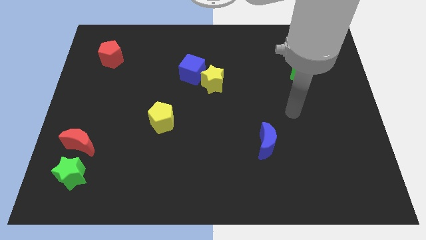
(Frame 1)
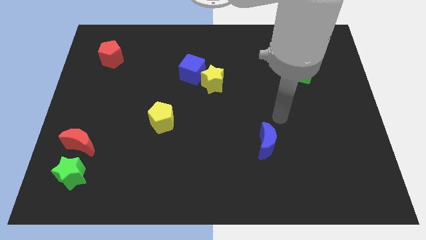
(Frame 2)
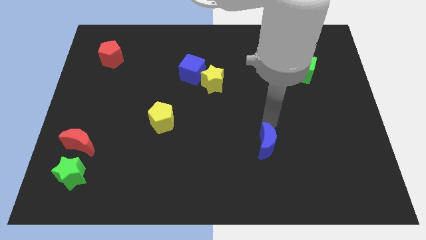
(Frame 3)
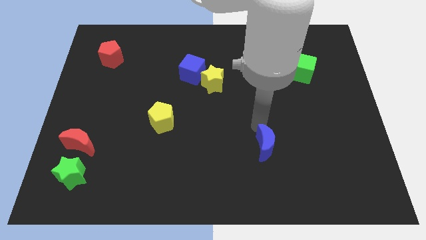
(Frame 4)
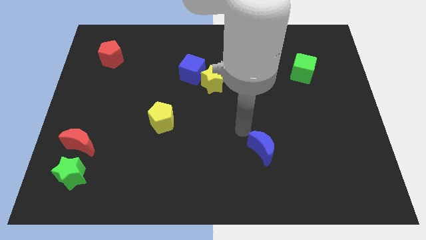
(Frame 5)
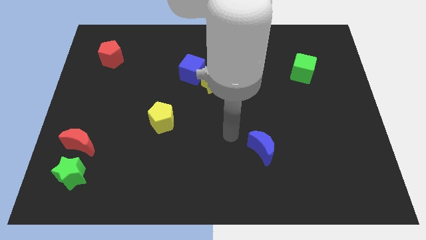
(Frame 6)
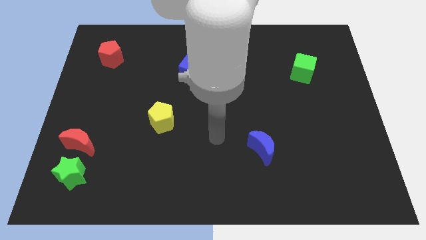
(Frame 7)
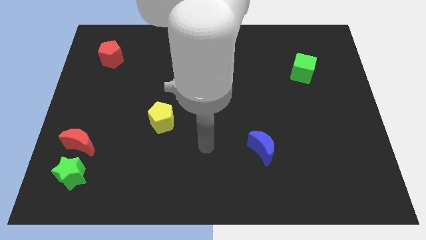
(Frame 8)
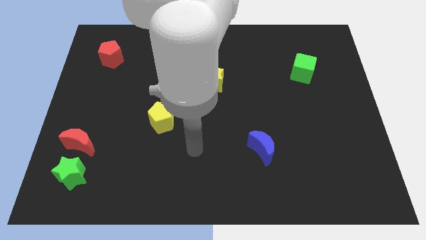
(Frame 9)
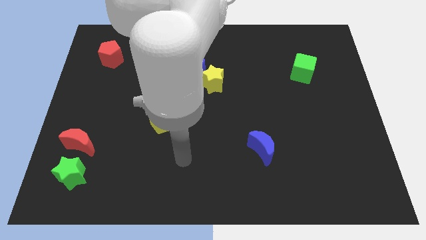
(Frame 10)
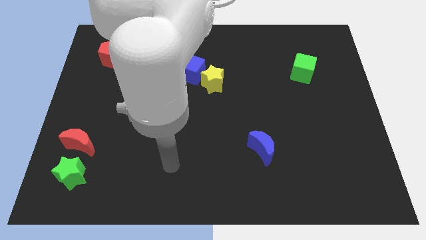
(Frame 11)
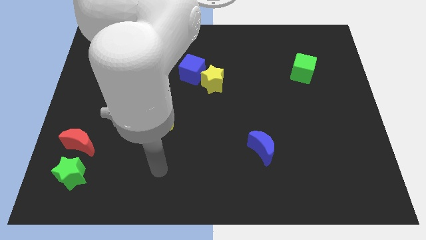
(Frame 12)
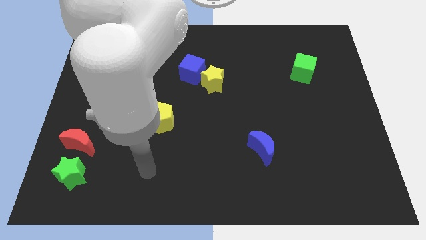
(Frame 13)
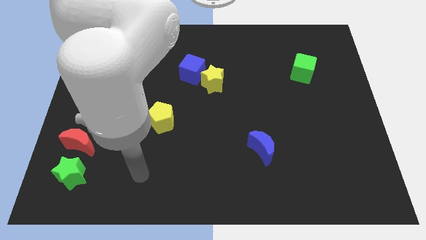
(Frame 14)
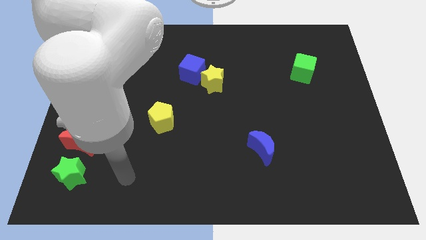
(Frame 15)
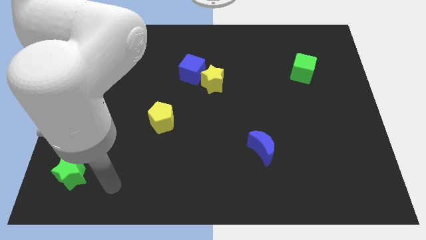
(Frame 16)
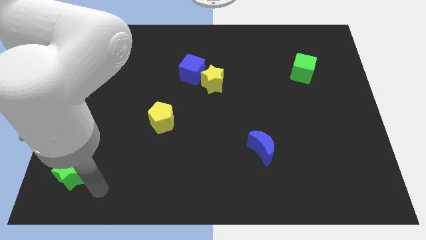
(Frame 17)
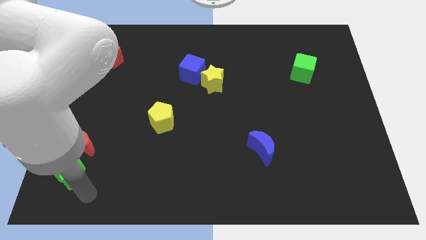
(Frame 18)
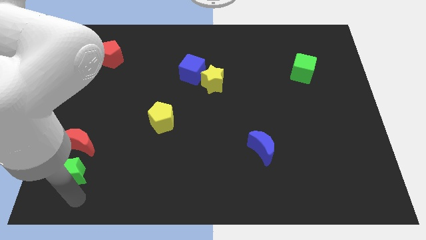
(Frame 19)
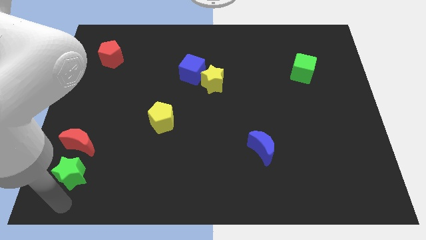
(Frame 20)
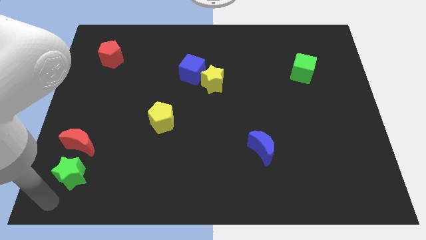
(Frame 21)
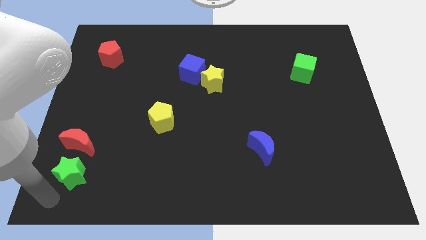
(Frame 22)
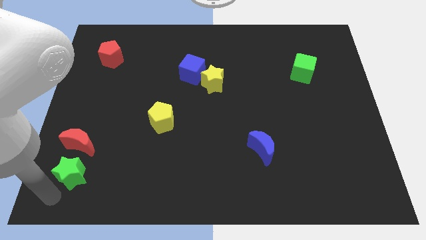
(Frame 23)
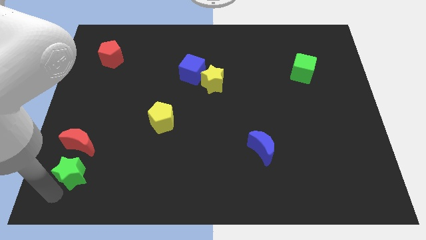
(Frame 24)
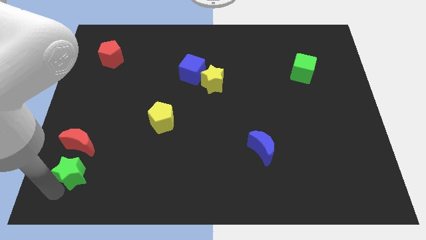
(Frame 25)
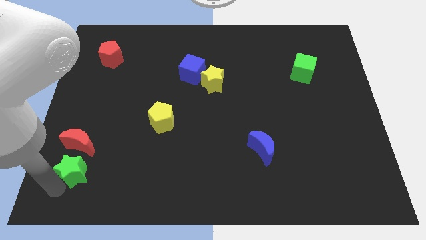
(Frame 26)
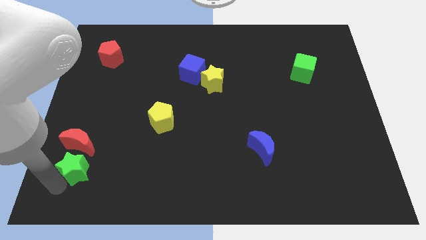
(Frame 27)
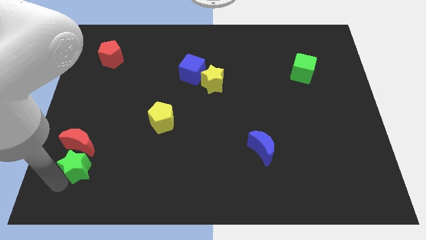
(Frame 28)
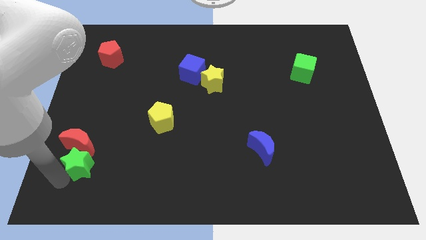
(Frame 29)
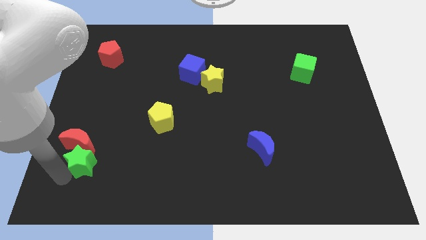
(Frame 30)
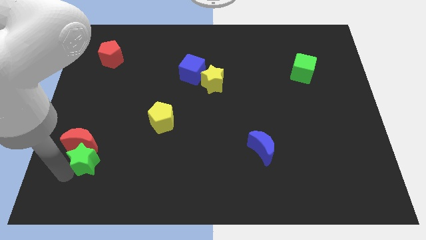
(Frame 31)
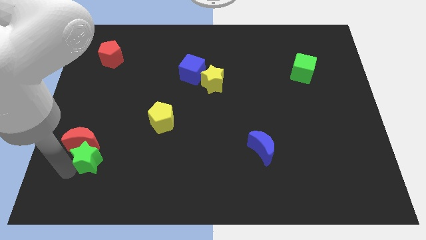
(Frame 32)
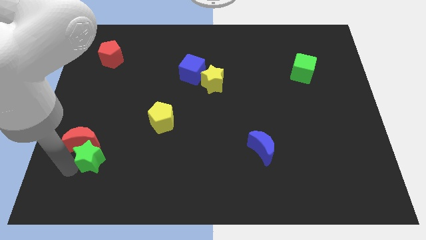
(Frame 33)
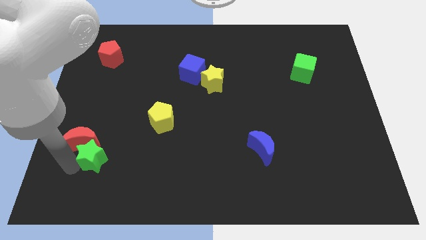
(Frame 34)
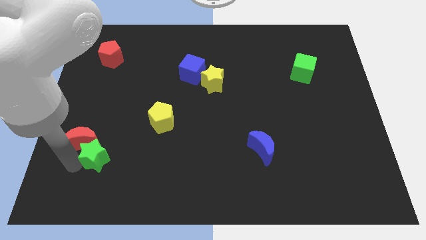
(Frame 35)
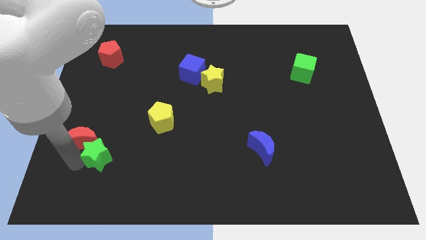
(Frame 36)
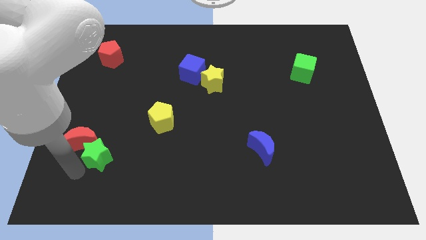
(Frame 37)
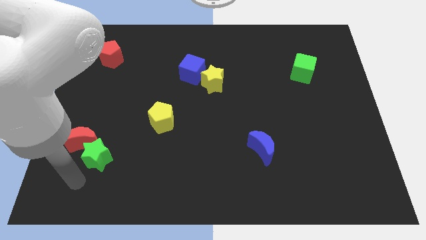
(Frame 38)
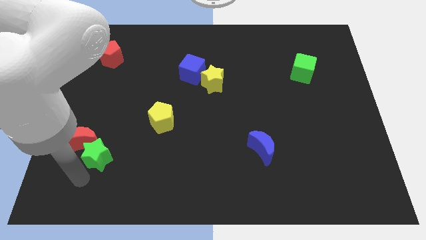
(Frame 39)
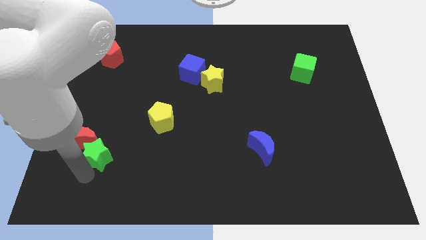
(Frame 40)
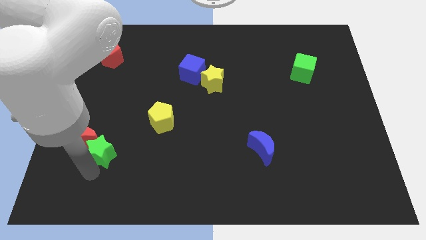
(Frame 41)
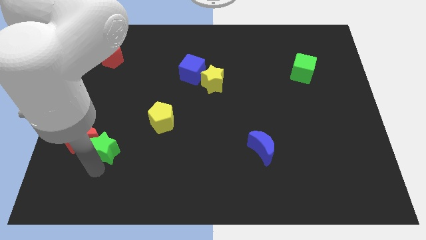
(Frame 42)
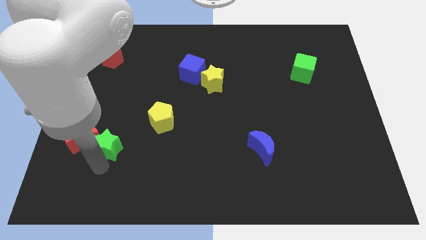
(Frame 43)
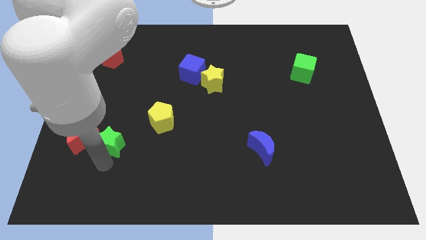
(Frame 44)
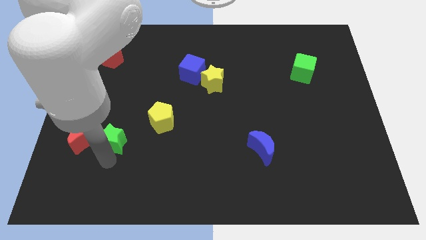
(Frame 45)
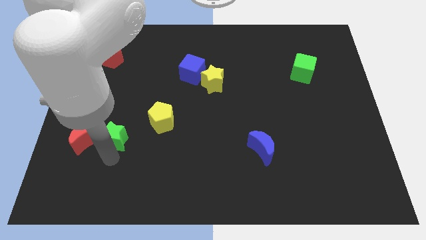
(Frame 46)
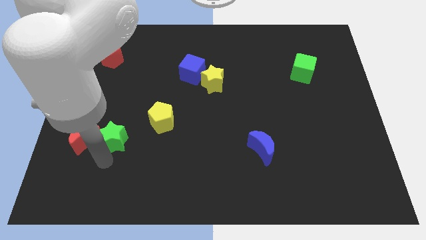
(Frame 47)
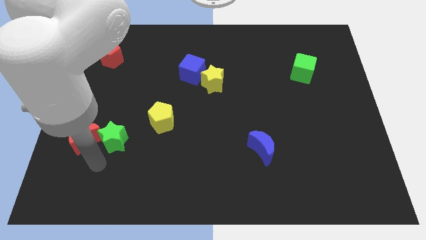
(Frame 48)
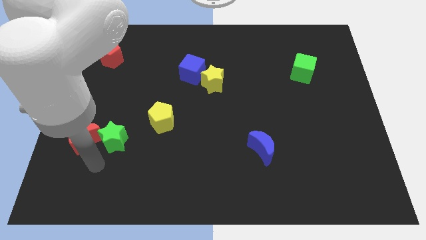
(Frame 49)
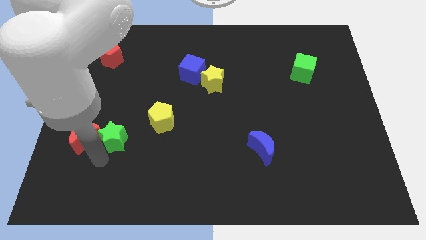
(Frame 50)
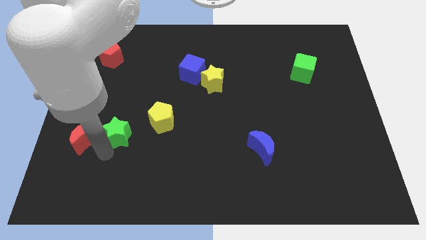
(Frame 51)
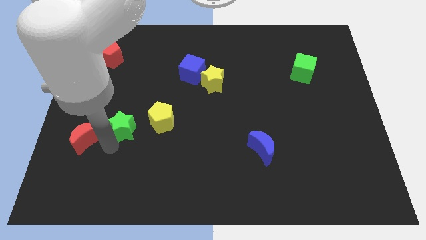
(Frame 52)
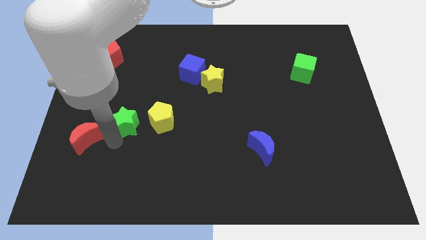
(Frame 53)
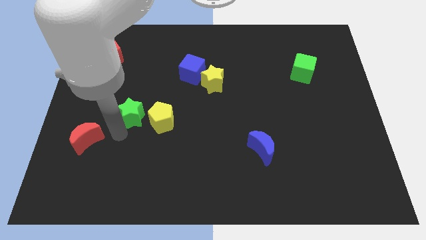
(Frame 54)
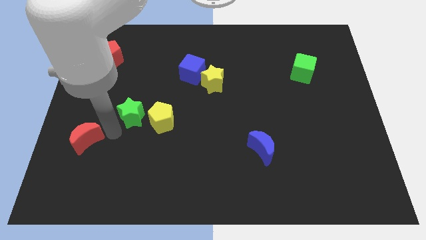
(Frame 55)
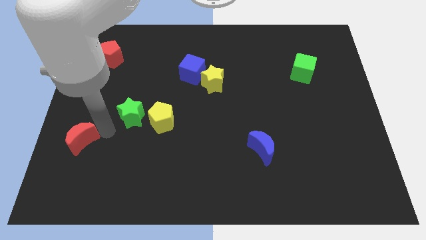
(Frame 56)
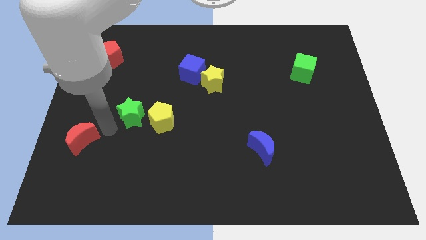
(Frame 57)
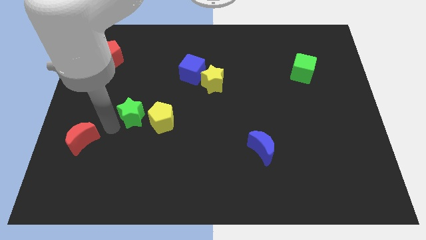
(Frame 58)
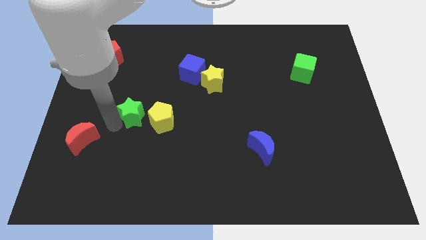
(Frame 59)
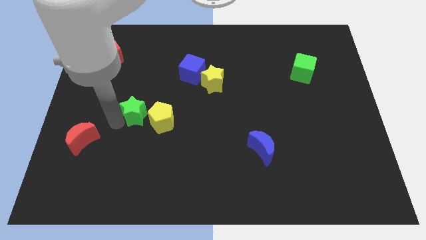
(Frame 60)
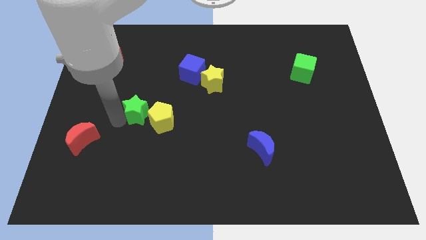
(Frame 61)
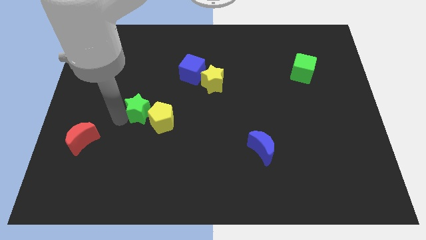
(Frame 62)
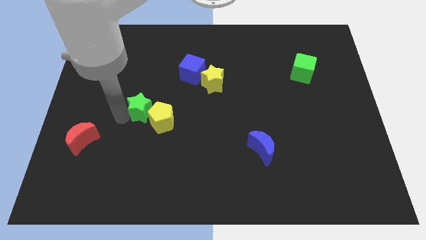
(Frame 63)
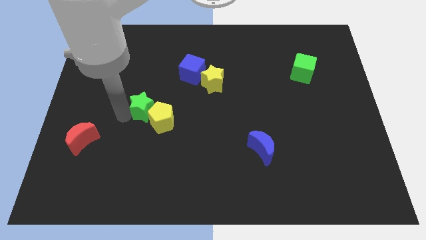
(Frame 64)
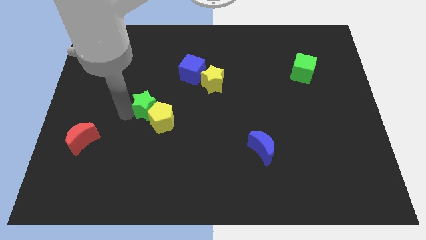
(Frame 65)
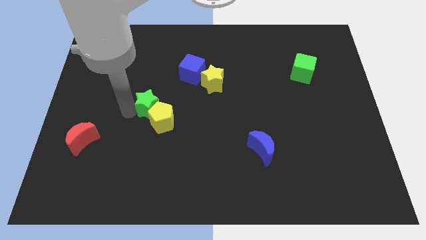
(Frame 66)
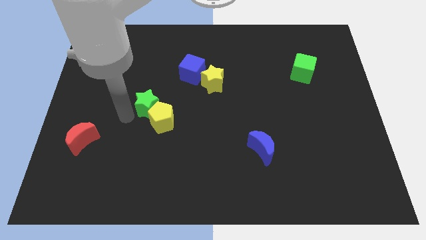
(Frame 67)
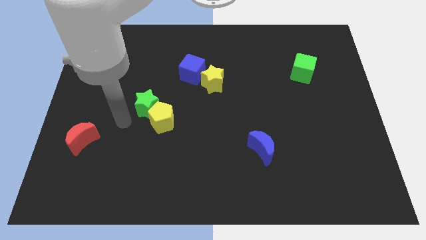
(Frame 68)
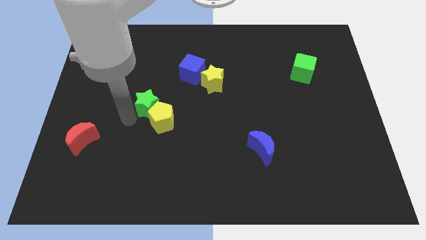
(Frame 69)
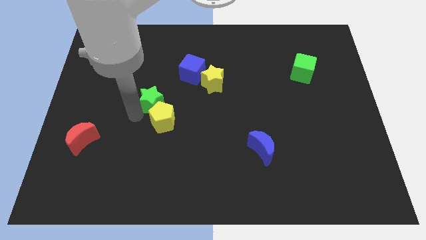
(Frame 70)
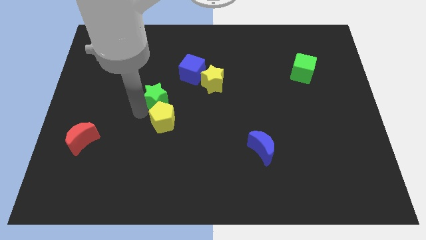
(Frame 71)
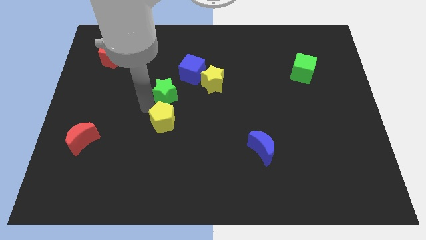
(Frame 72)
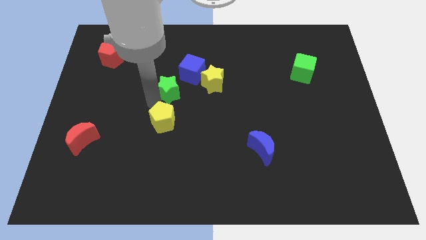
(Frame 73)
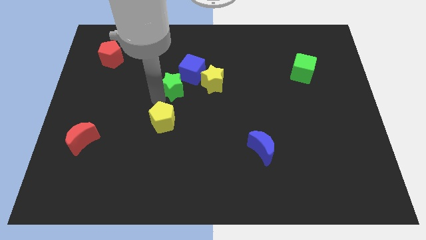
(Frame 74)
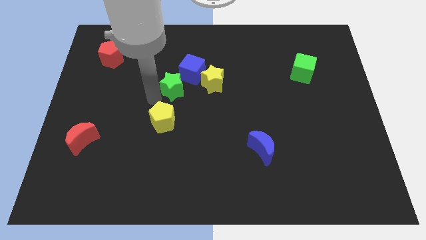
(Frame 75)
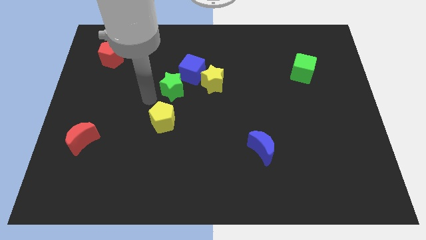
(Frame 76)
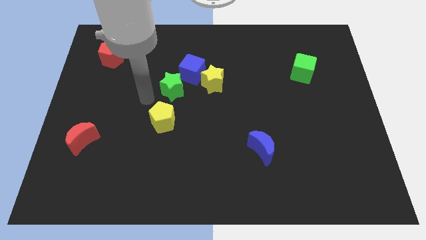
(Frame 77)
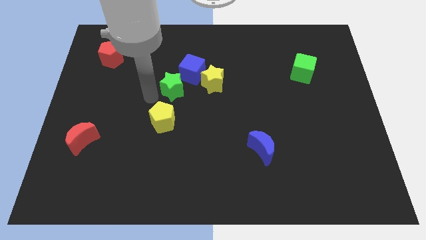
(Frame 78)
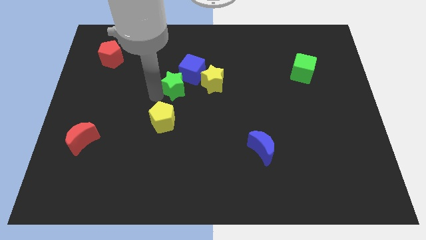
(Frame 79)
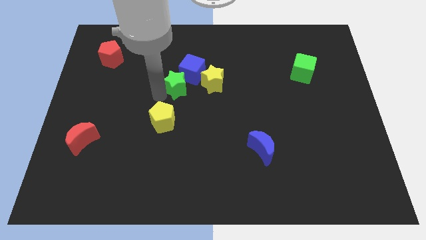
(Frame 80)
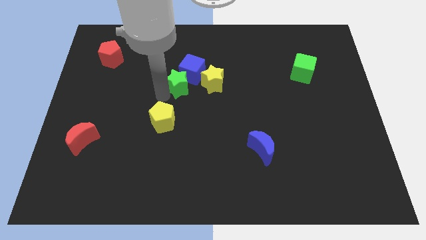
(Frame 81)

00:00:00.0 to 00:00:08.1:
slide the green star towards the blue cube
